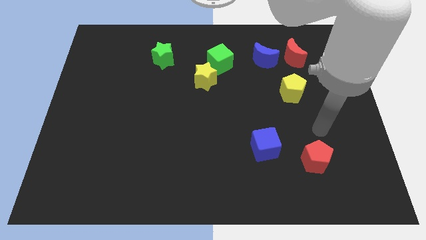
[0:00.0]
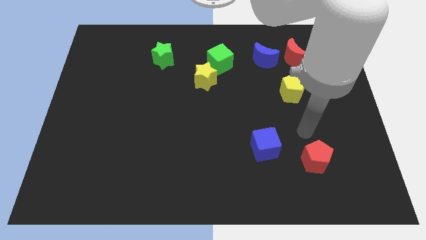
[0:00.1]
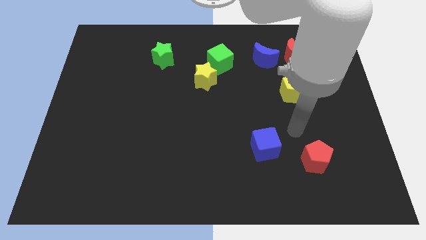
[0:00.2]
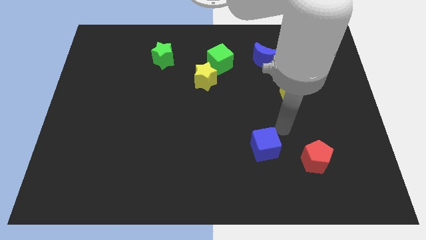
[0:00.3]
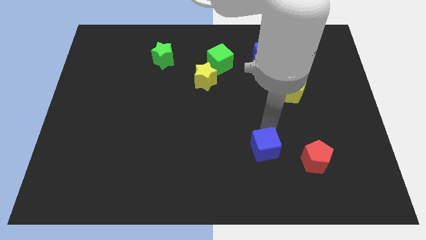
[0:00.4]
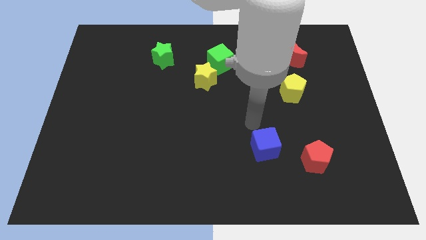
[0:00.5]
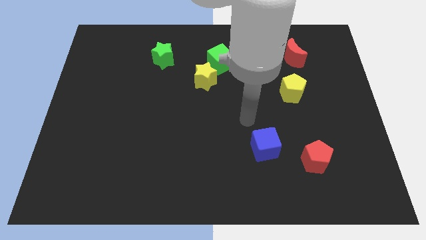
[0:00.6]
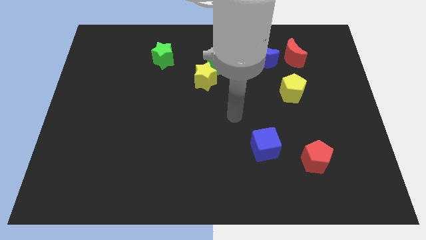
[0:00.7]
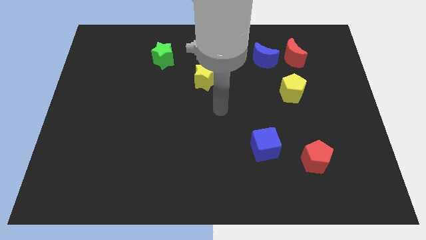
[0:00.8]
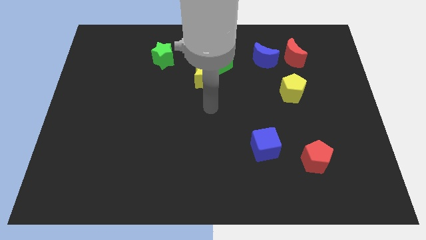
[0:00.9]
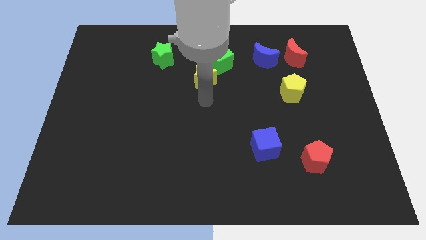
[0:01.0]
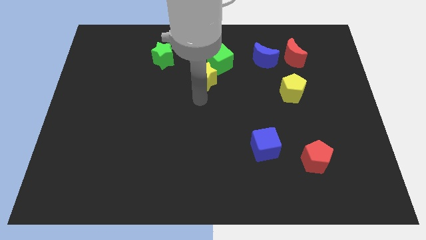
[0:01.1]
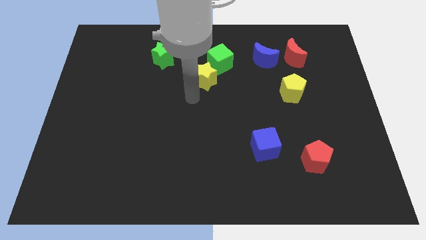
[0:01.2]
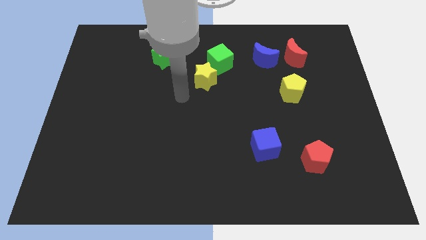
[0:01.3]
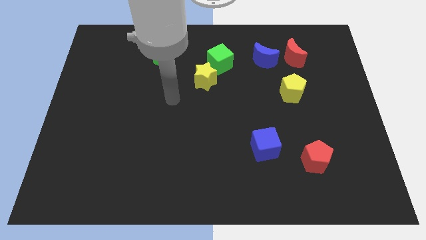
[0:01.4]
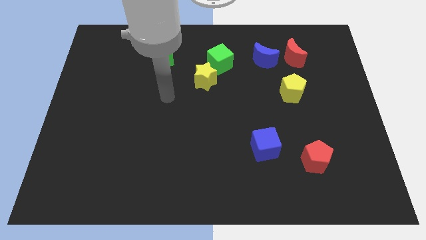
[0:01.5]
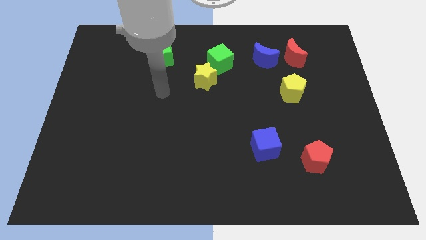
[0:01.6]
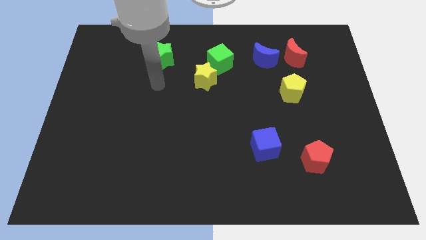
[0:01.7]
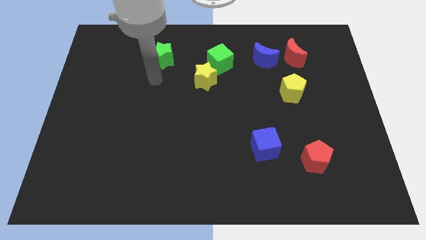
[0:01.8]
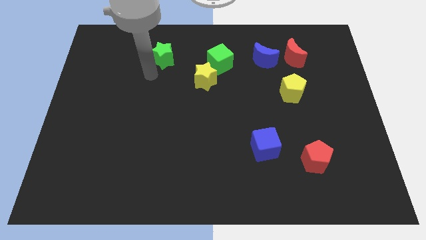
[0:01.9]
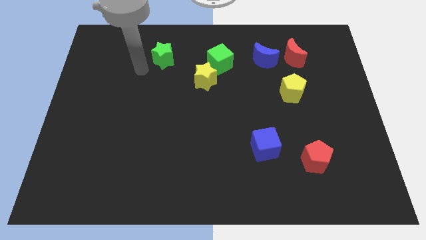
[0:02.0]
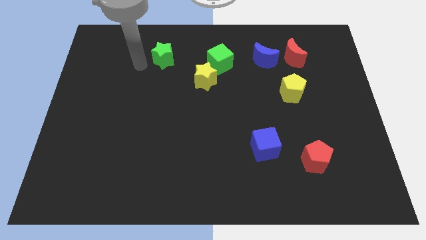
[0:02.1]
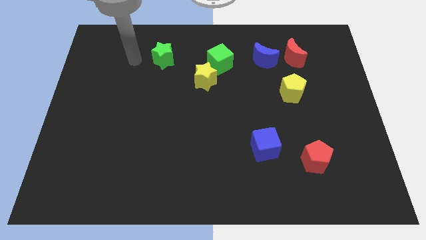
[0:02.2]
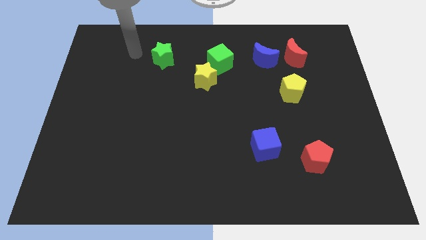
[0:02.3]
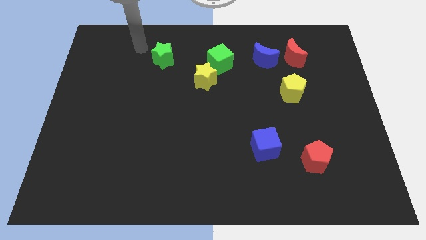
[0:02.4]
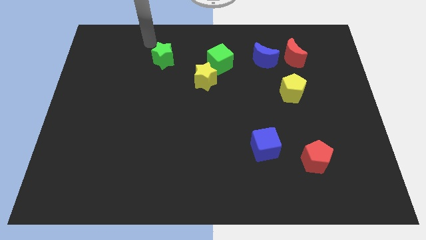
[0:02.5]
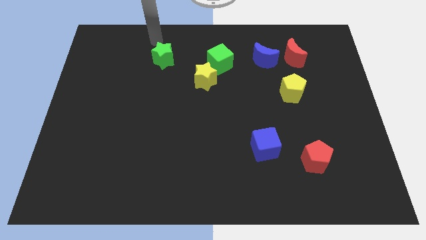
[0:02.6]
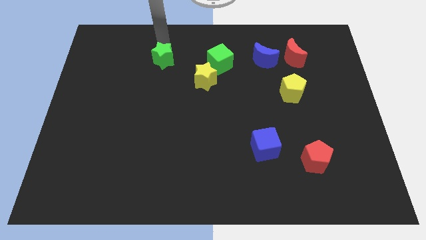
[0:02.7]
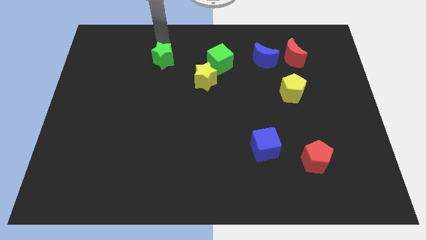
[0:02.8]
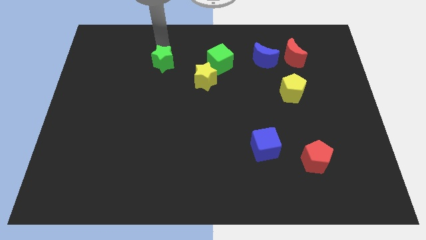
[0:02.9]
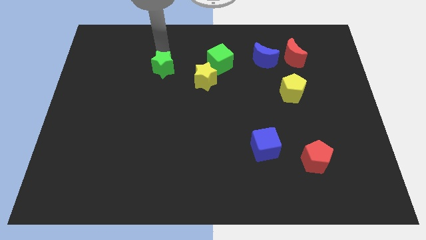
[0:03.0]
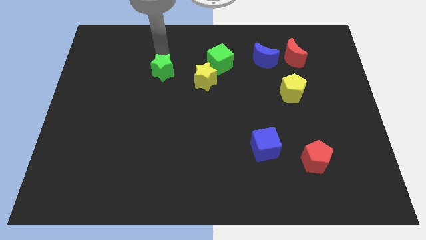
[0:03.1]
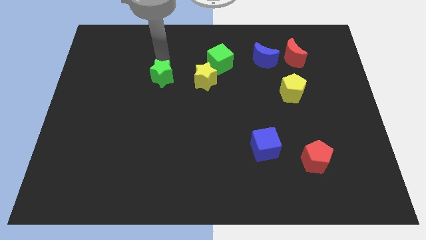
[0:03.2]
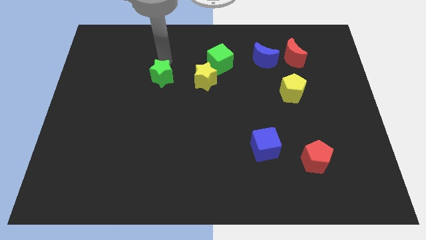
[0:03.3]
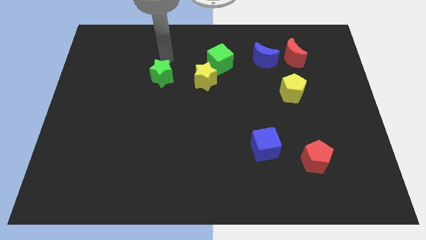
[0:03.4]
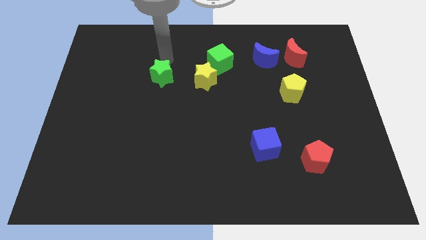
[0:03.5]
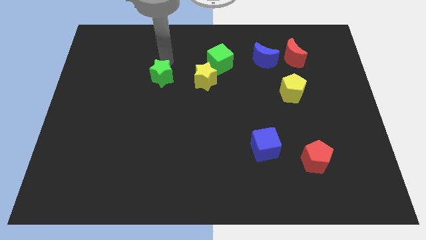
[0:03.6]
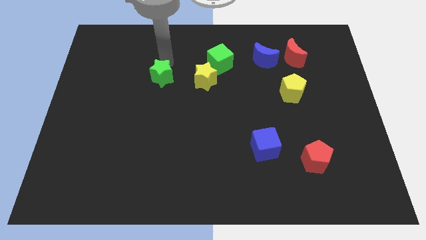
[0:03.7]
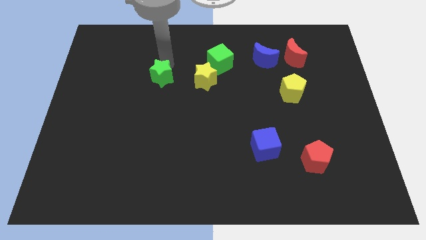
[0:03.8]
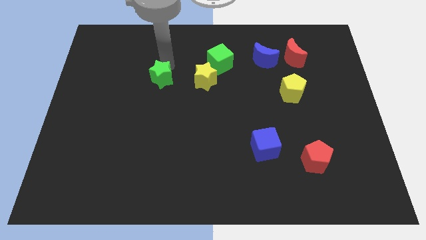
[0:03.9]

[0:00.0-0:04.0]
slide the green star down somewhat

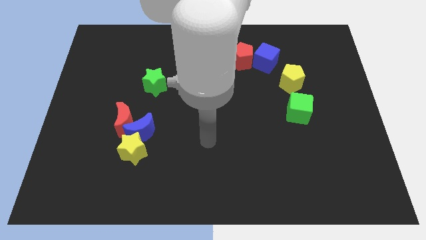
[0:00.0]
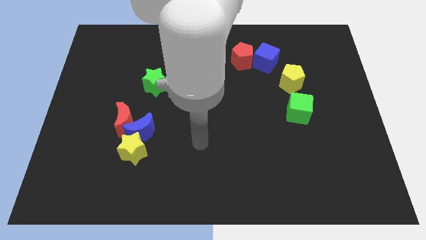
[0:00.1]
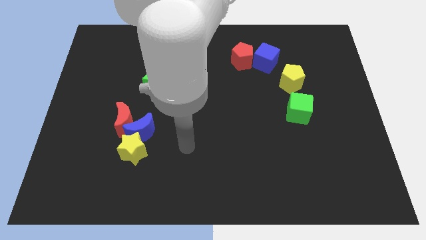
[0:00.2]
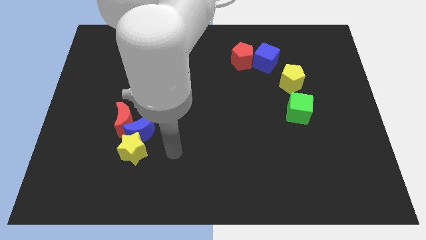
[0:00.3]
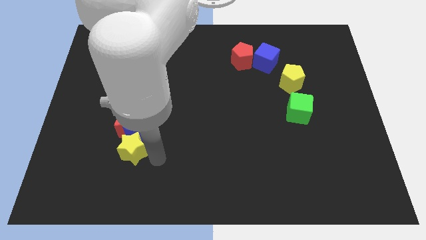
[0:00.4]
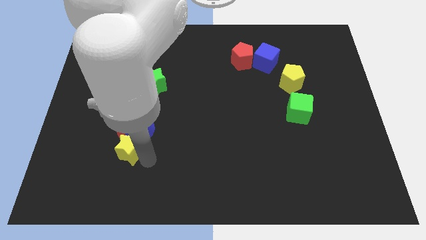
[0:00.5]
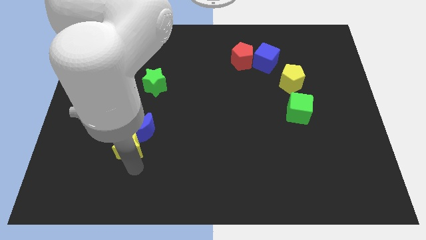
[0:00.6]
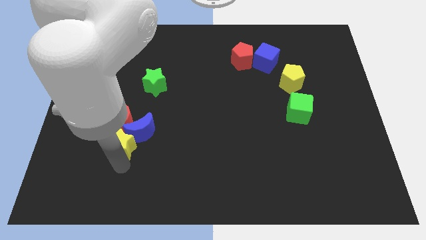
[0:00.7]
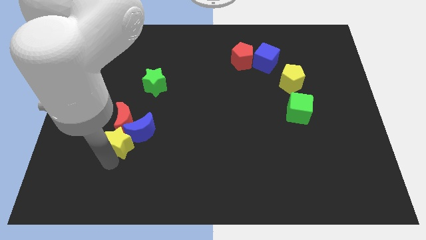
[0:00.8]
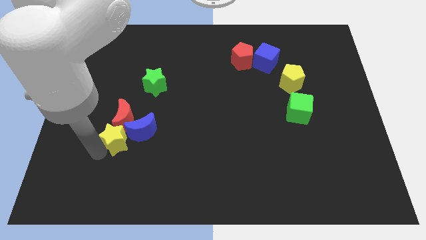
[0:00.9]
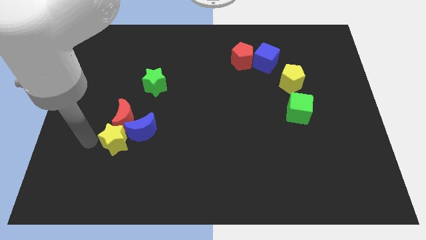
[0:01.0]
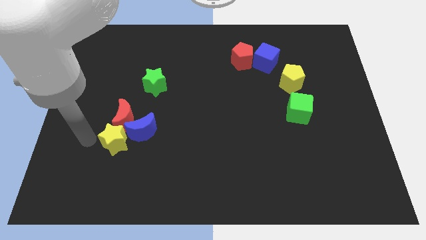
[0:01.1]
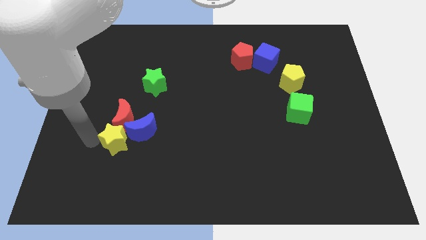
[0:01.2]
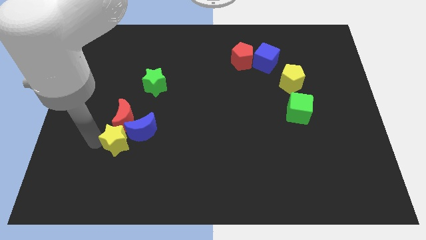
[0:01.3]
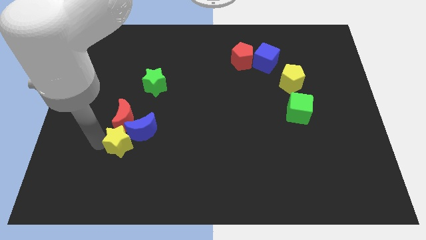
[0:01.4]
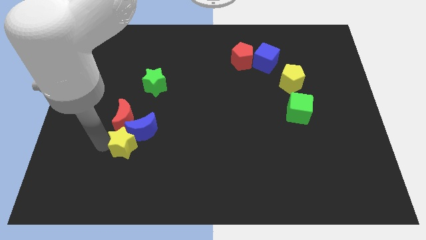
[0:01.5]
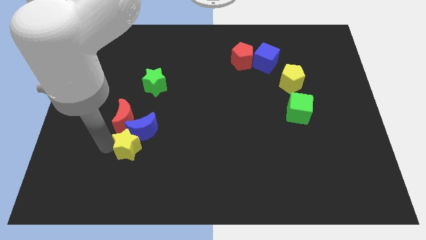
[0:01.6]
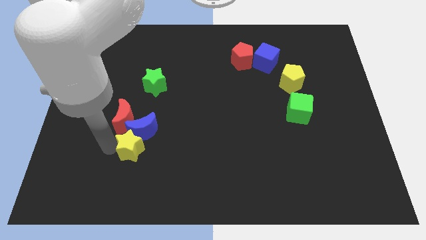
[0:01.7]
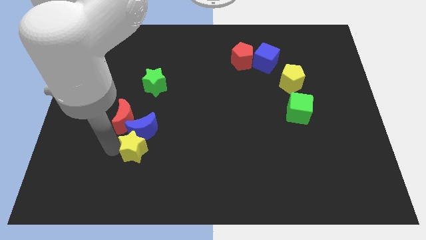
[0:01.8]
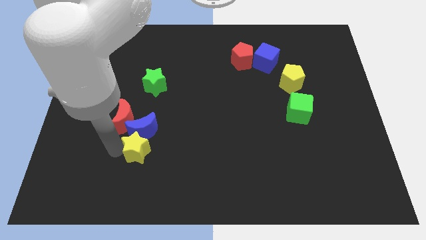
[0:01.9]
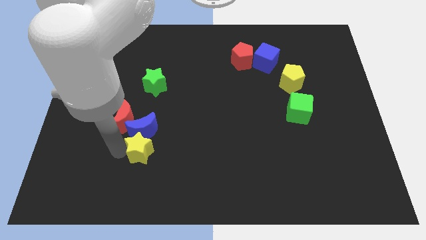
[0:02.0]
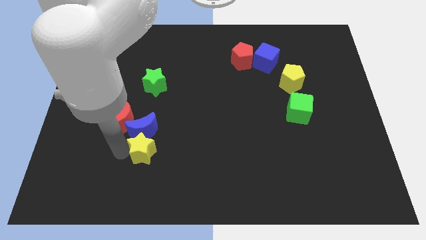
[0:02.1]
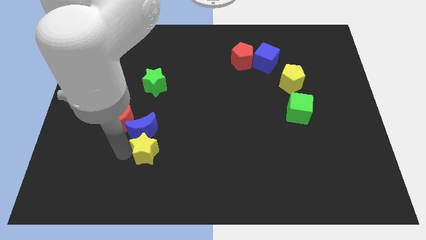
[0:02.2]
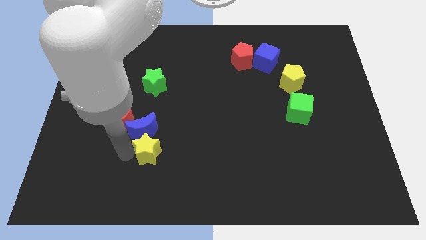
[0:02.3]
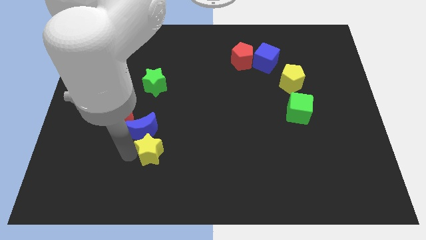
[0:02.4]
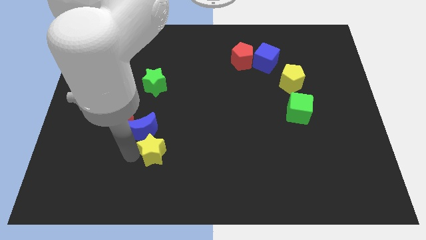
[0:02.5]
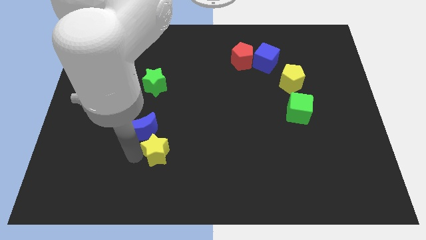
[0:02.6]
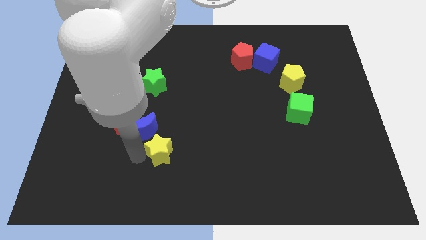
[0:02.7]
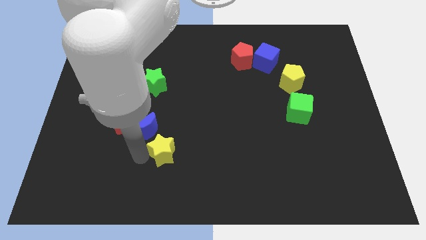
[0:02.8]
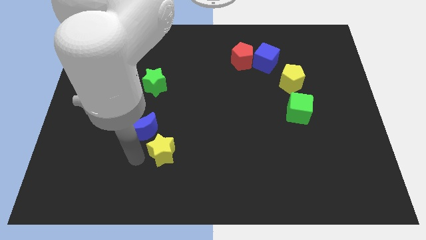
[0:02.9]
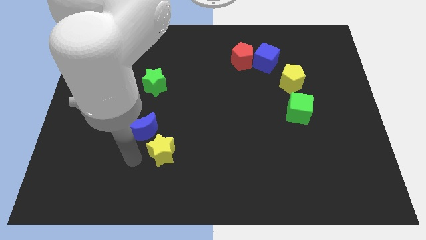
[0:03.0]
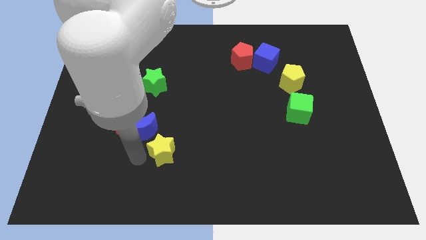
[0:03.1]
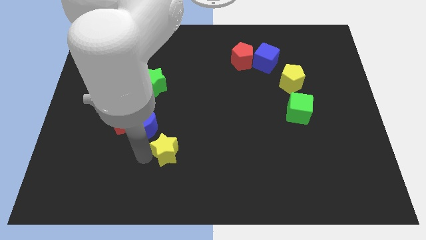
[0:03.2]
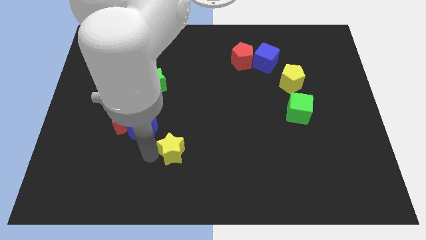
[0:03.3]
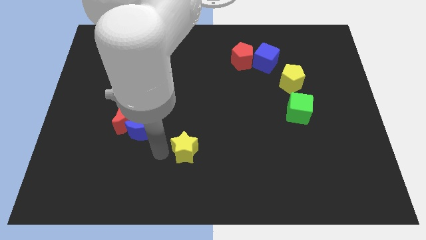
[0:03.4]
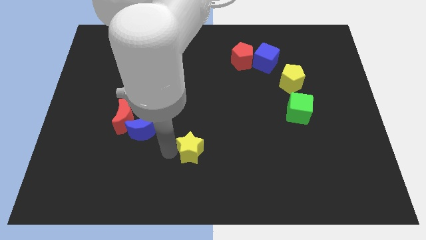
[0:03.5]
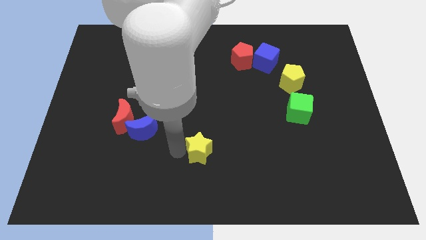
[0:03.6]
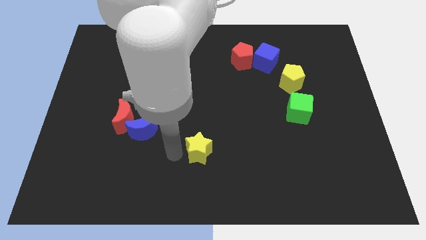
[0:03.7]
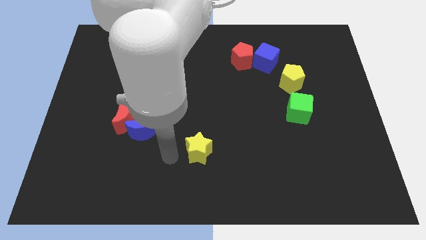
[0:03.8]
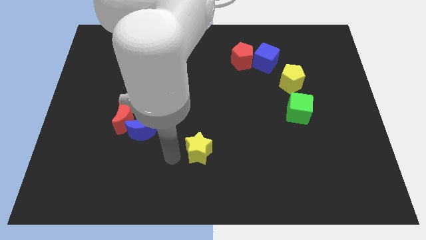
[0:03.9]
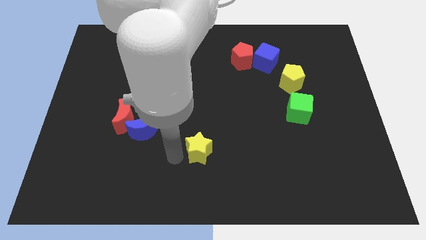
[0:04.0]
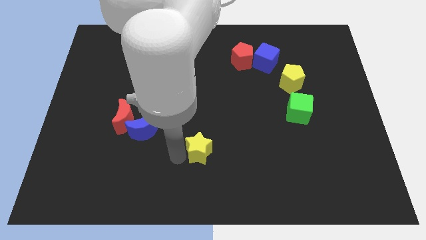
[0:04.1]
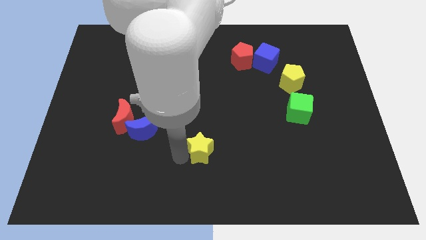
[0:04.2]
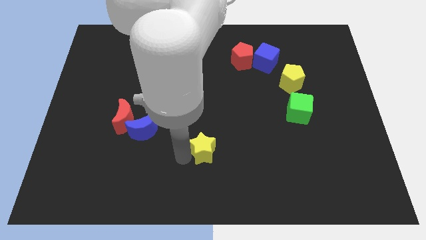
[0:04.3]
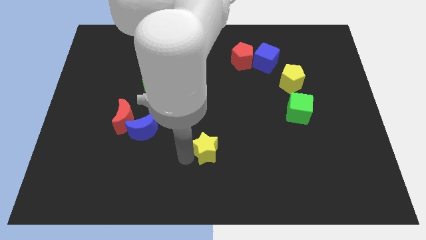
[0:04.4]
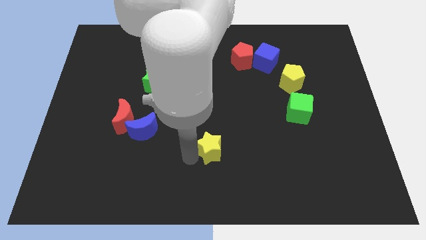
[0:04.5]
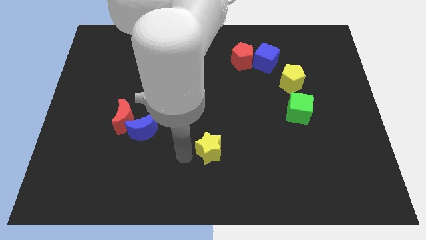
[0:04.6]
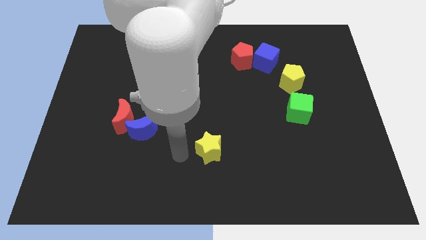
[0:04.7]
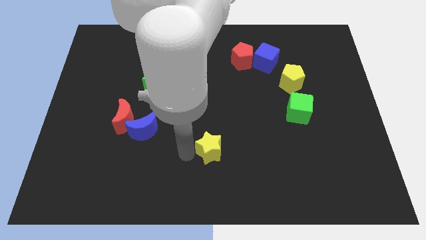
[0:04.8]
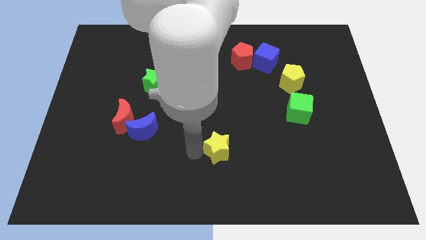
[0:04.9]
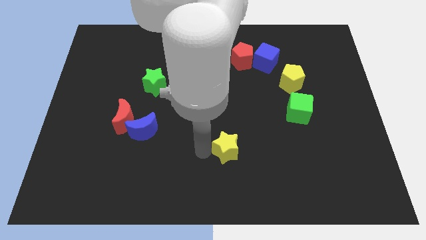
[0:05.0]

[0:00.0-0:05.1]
move the yellow star right
